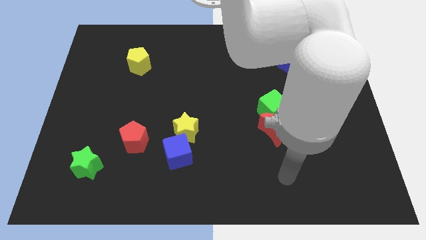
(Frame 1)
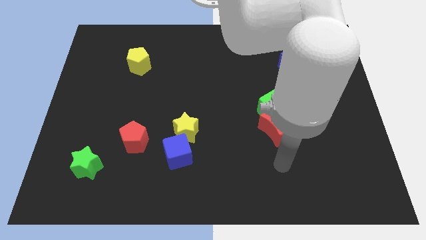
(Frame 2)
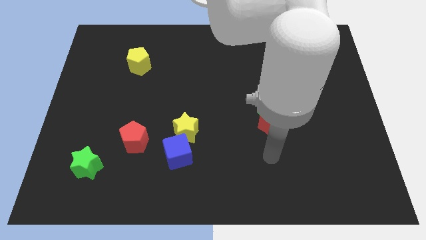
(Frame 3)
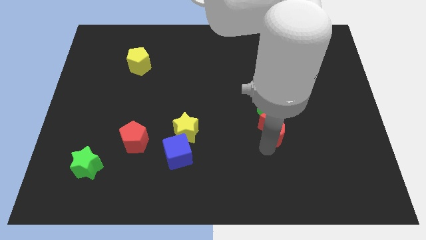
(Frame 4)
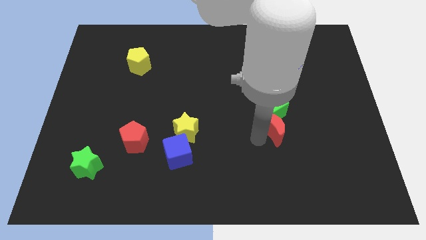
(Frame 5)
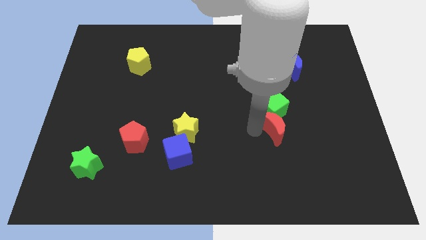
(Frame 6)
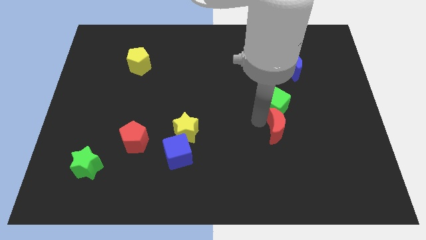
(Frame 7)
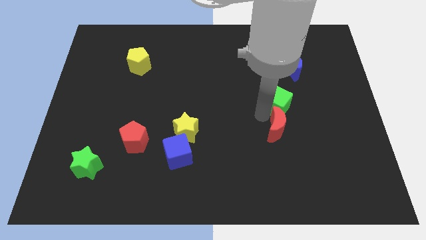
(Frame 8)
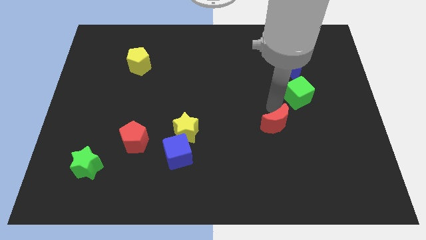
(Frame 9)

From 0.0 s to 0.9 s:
separate the red moon from the green cube

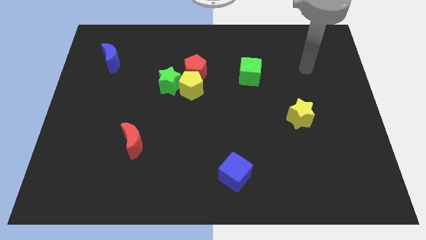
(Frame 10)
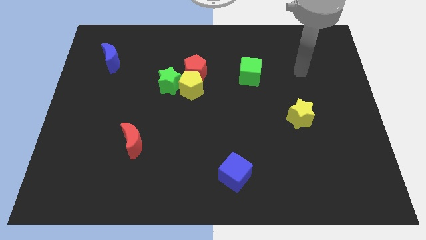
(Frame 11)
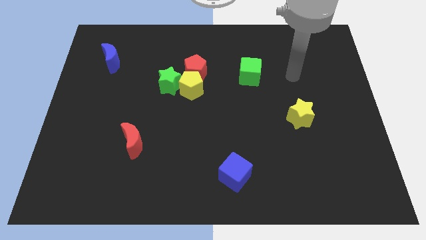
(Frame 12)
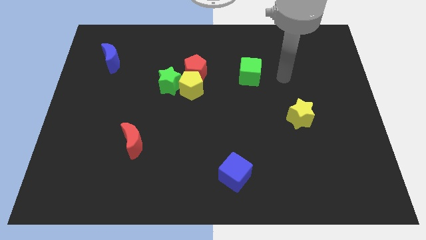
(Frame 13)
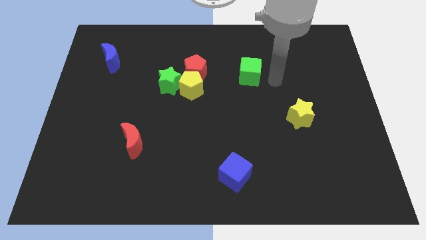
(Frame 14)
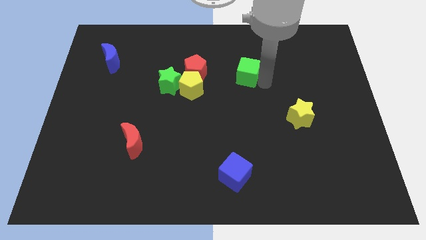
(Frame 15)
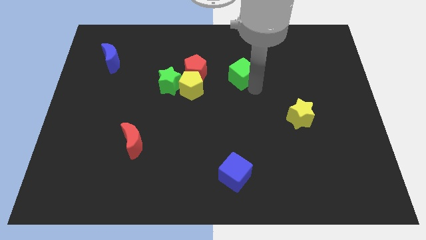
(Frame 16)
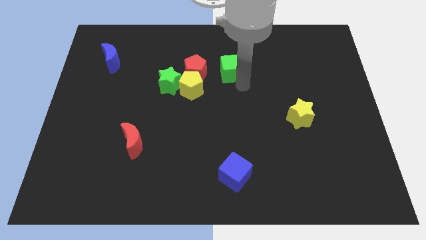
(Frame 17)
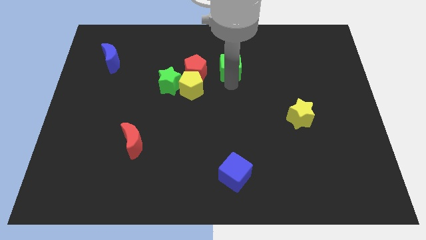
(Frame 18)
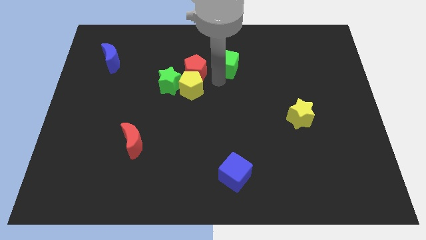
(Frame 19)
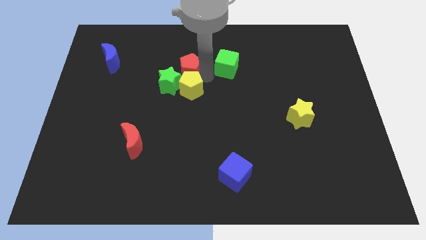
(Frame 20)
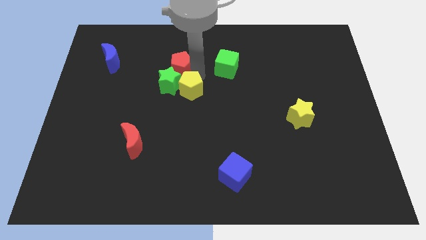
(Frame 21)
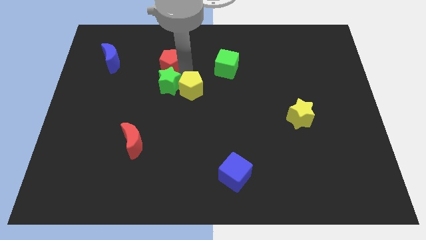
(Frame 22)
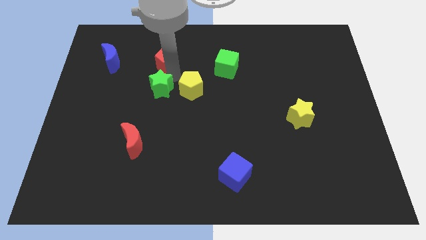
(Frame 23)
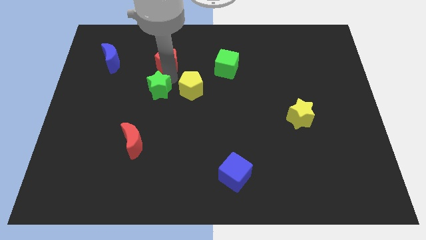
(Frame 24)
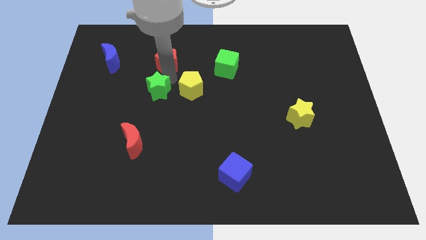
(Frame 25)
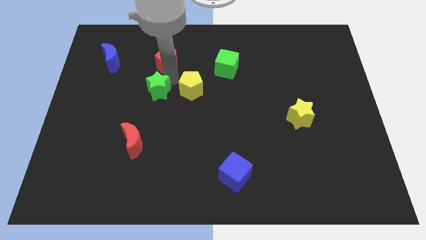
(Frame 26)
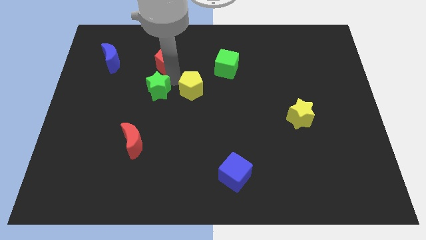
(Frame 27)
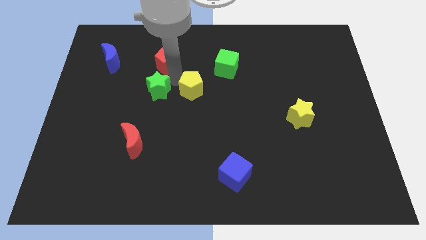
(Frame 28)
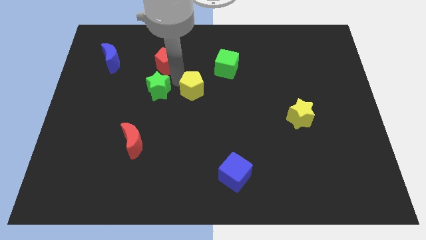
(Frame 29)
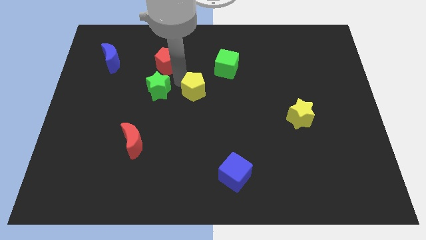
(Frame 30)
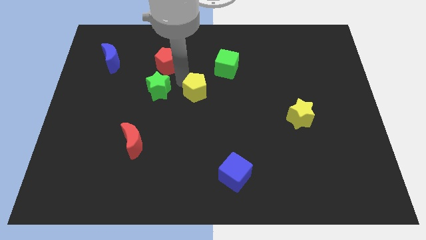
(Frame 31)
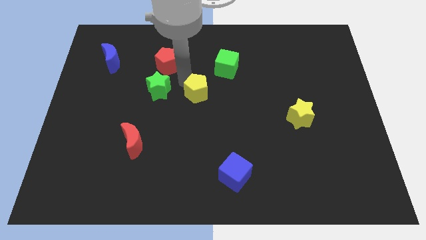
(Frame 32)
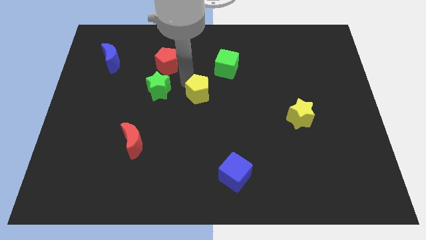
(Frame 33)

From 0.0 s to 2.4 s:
pull the yellow pentagon apart from the red pentagon and green star

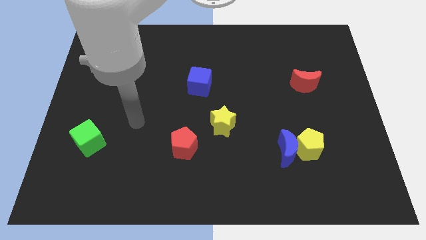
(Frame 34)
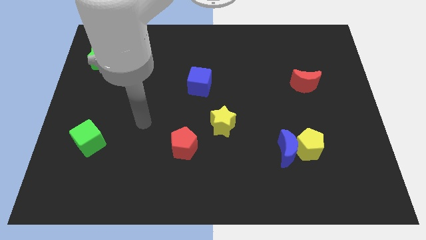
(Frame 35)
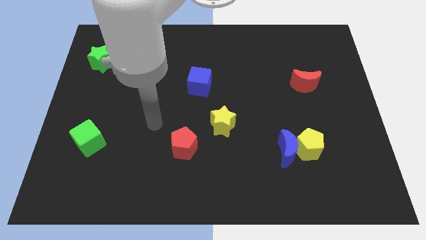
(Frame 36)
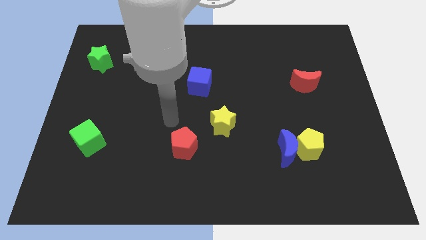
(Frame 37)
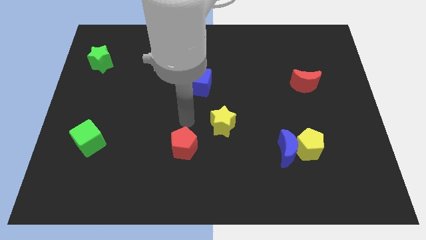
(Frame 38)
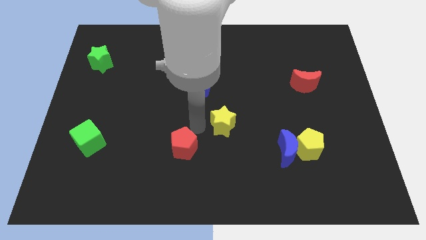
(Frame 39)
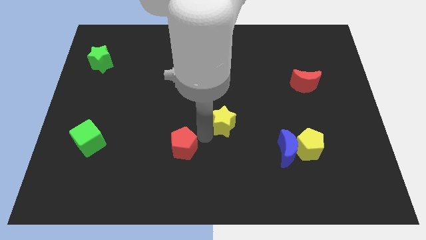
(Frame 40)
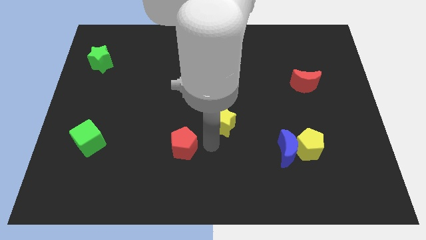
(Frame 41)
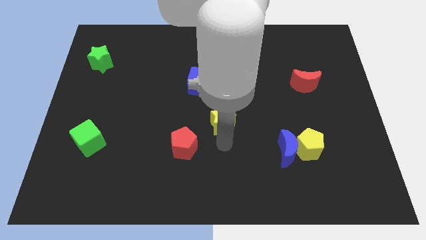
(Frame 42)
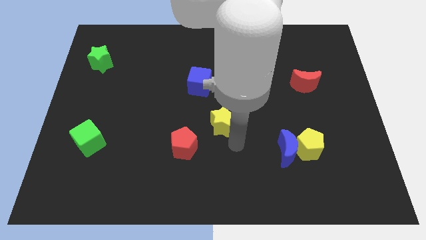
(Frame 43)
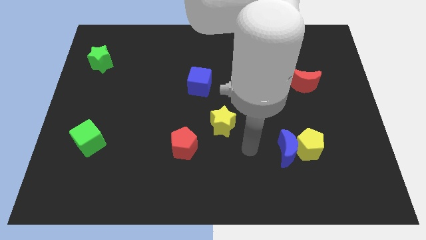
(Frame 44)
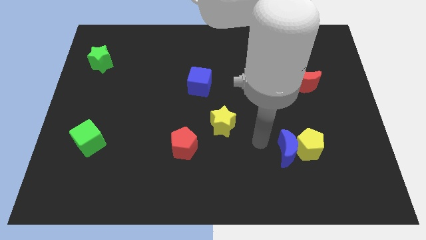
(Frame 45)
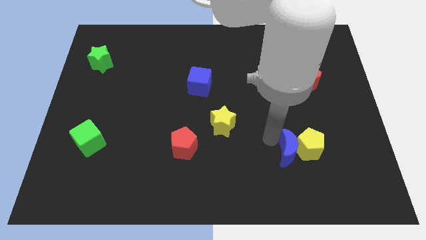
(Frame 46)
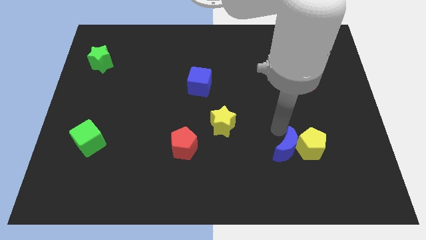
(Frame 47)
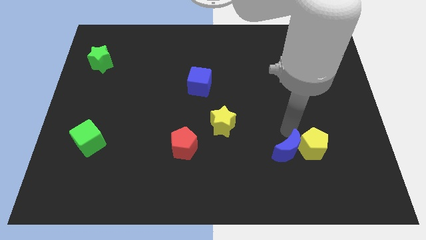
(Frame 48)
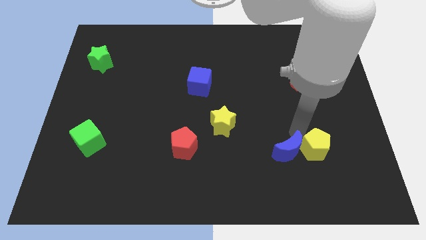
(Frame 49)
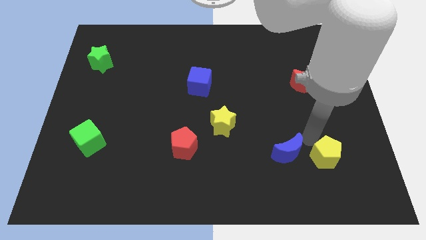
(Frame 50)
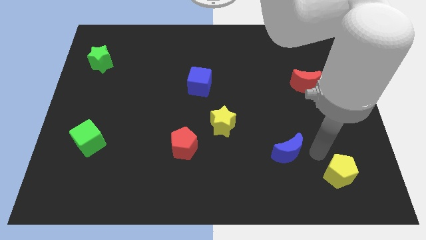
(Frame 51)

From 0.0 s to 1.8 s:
separate the blue moon from the yellow pentagon

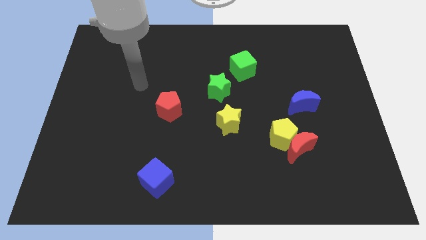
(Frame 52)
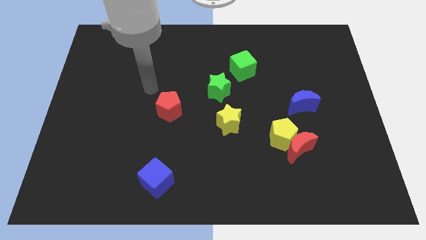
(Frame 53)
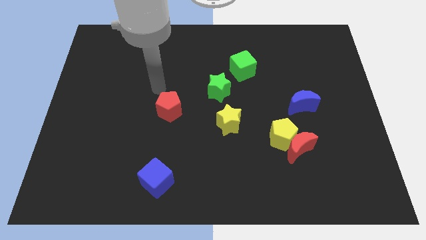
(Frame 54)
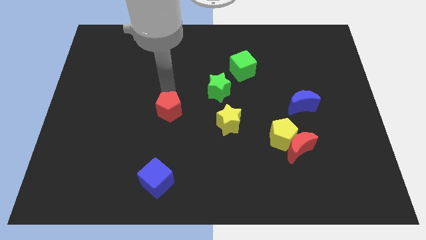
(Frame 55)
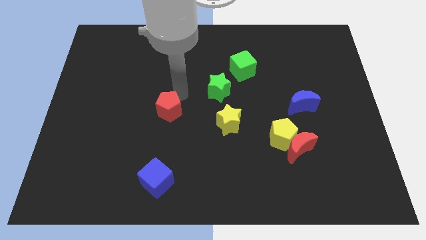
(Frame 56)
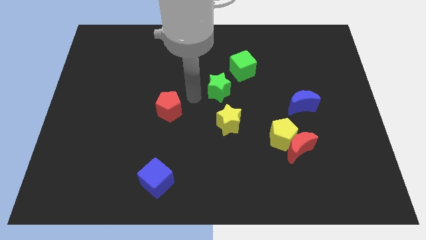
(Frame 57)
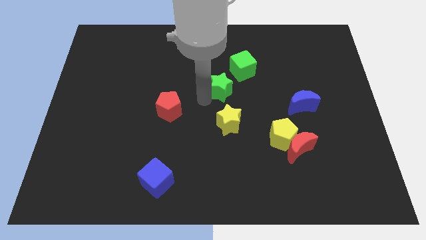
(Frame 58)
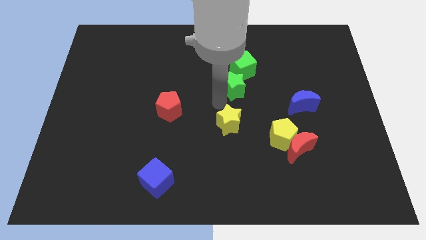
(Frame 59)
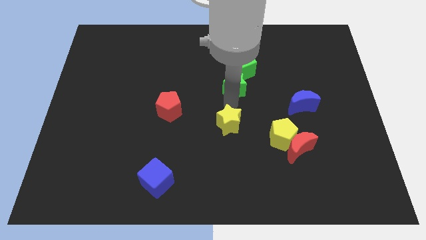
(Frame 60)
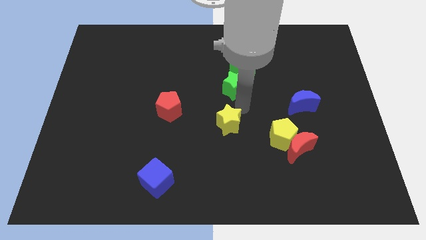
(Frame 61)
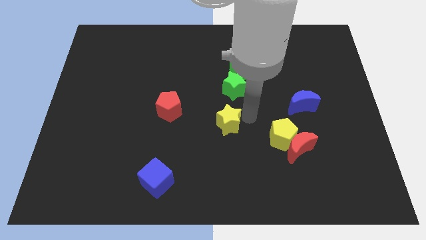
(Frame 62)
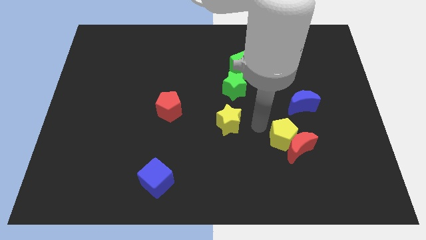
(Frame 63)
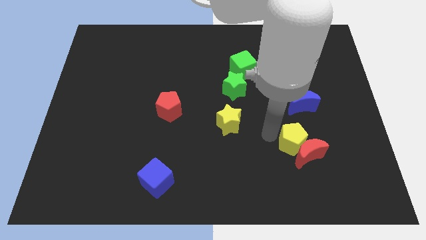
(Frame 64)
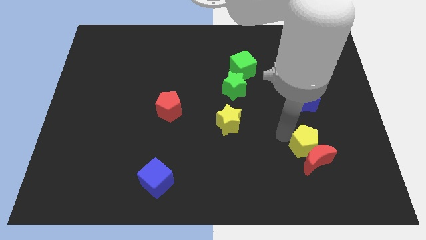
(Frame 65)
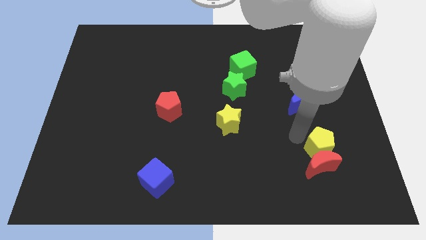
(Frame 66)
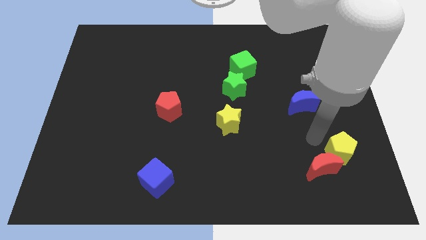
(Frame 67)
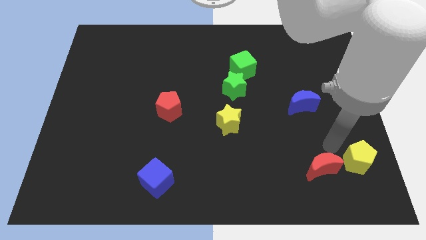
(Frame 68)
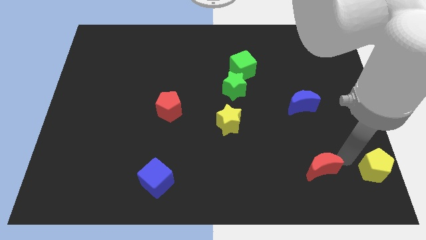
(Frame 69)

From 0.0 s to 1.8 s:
separate the red moon from the yellow pentagon

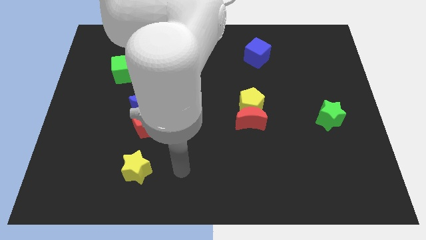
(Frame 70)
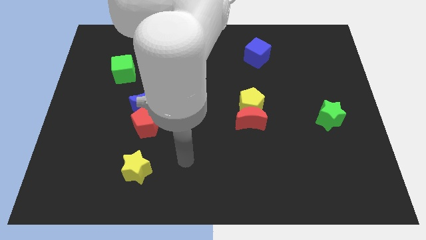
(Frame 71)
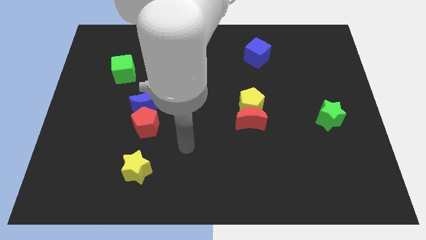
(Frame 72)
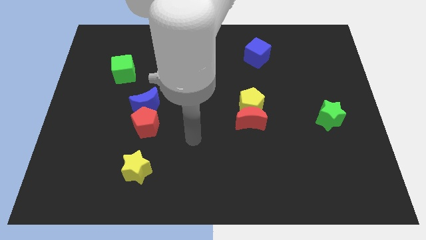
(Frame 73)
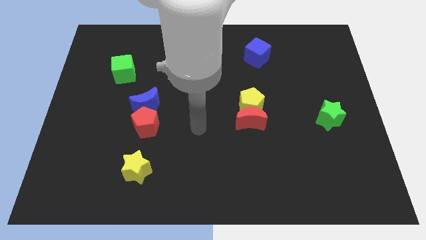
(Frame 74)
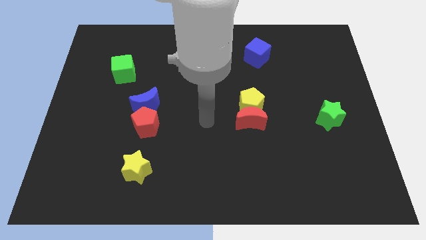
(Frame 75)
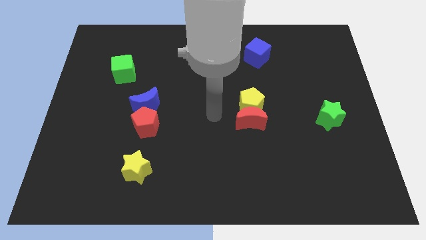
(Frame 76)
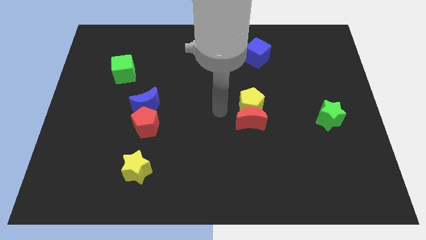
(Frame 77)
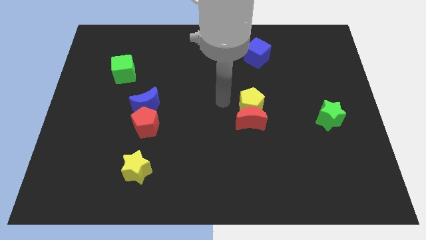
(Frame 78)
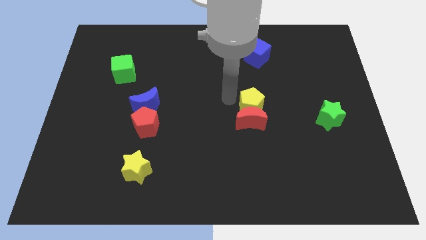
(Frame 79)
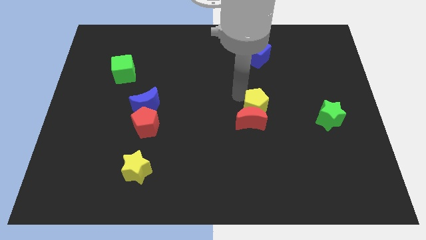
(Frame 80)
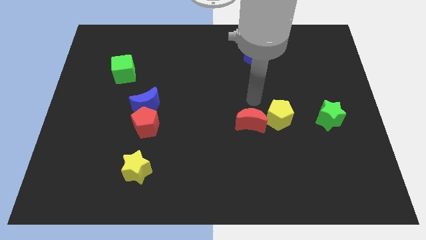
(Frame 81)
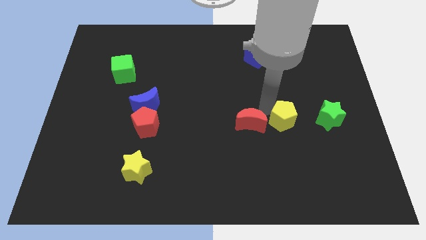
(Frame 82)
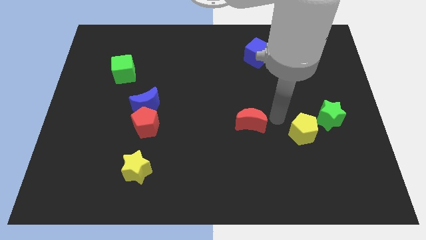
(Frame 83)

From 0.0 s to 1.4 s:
pull the red moon apart from the yellow pentagon

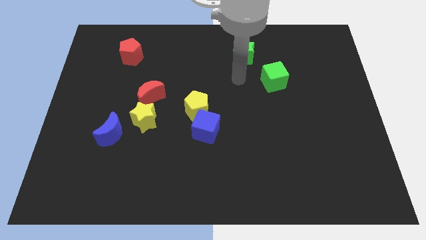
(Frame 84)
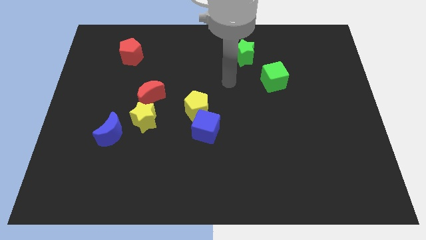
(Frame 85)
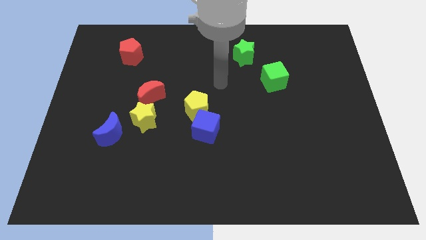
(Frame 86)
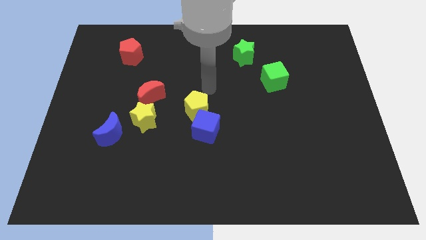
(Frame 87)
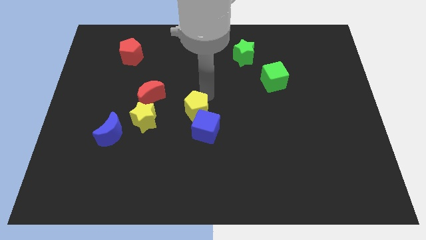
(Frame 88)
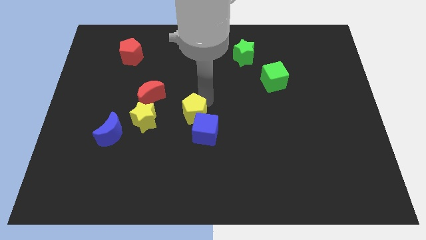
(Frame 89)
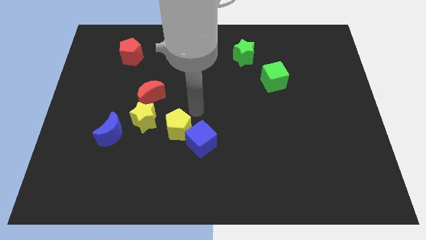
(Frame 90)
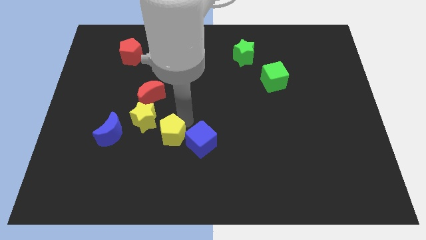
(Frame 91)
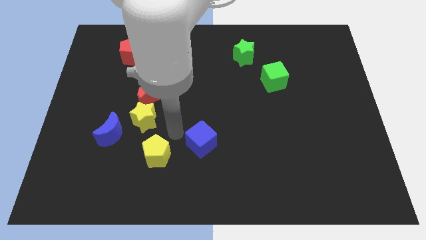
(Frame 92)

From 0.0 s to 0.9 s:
separate the blue cube from the yellow pentagon
